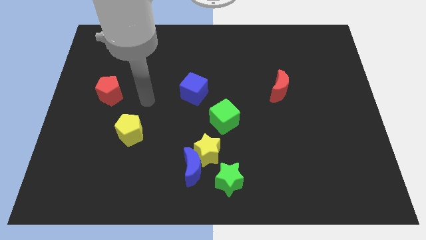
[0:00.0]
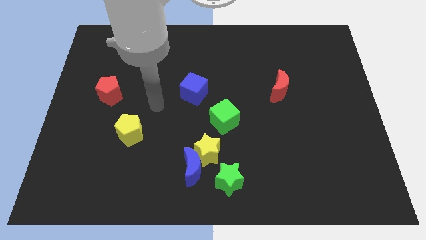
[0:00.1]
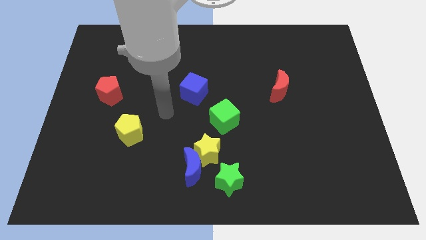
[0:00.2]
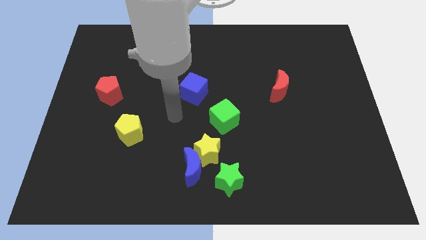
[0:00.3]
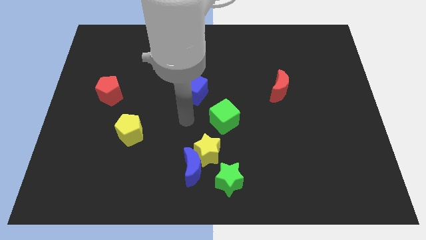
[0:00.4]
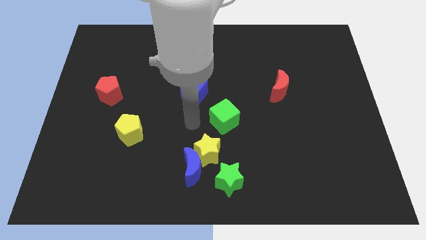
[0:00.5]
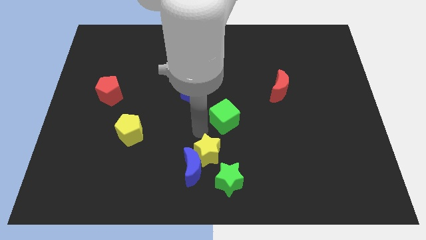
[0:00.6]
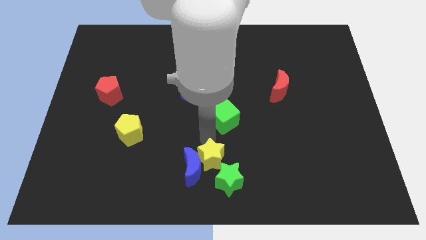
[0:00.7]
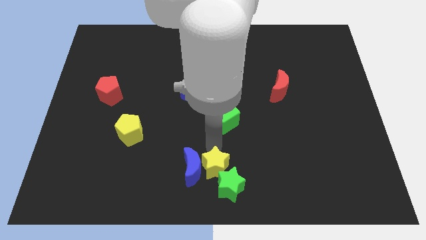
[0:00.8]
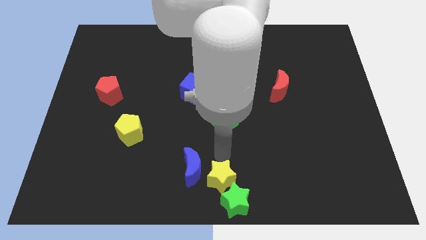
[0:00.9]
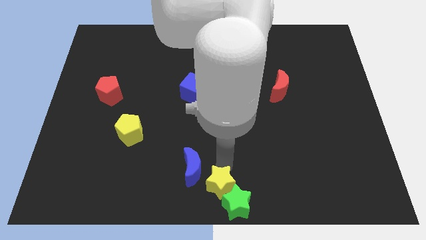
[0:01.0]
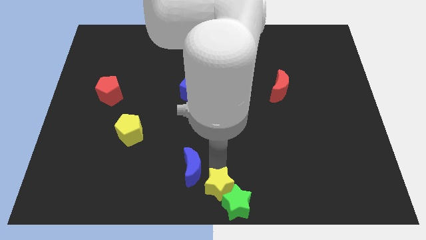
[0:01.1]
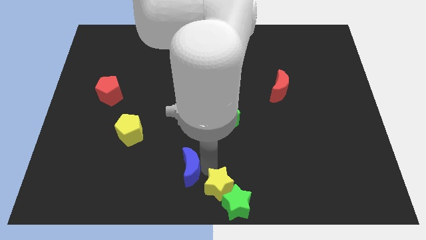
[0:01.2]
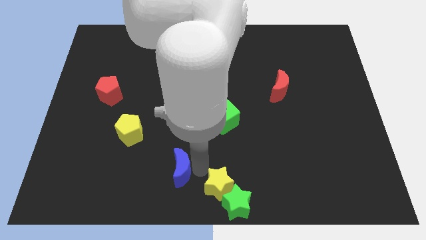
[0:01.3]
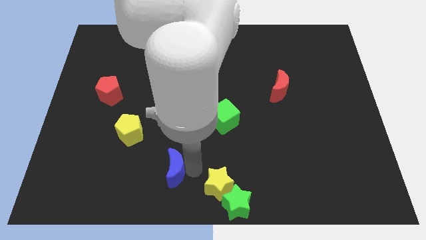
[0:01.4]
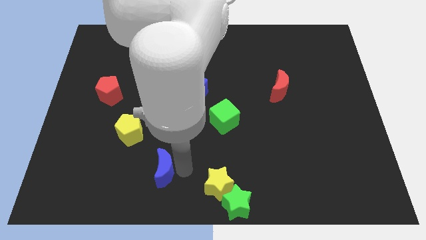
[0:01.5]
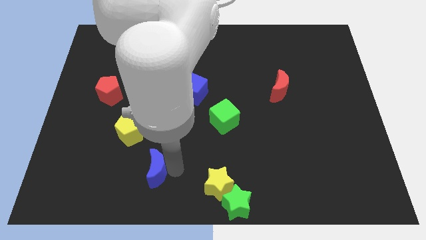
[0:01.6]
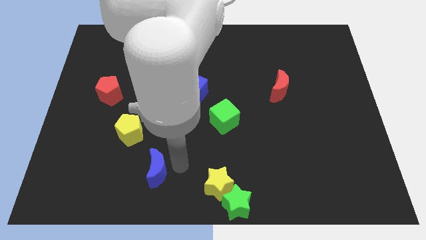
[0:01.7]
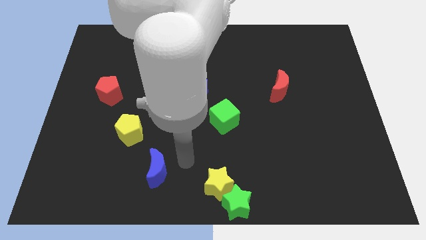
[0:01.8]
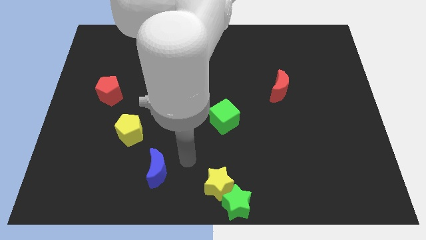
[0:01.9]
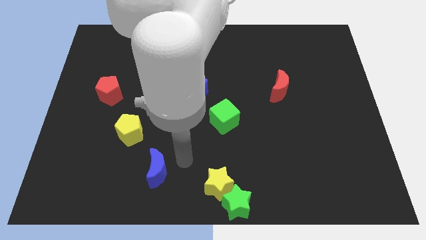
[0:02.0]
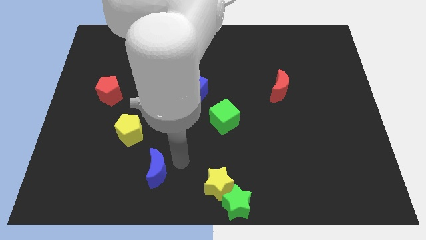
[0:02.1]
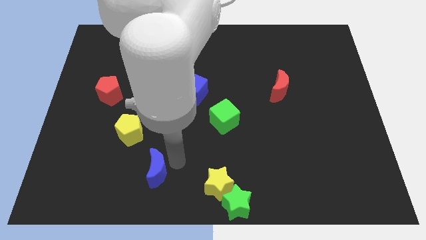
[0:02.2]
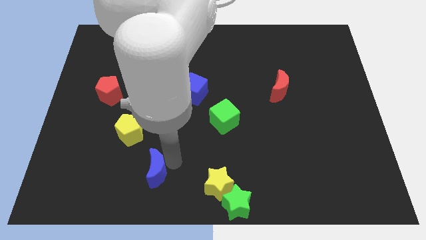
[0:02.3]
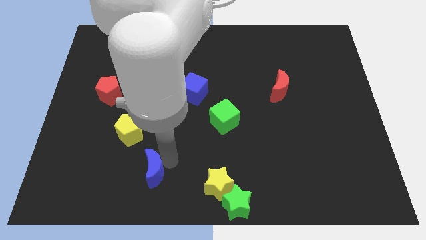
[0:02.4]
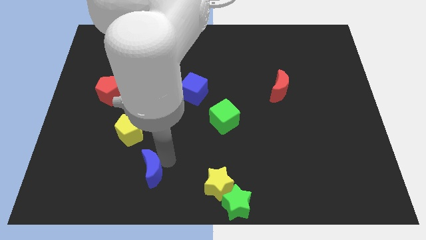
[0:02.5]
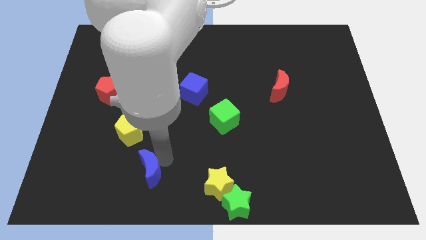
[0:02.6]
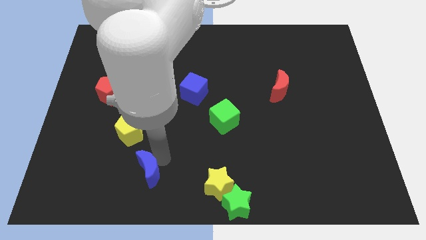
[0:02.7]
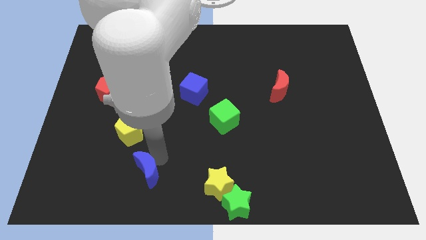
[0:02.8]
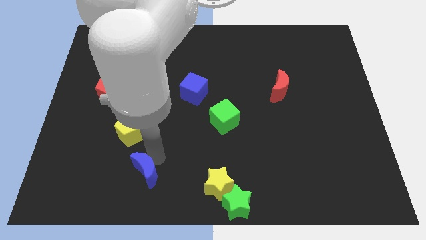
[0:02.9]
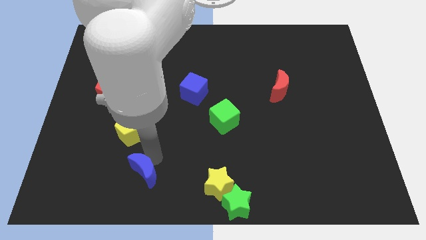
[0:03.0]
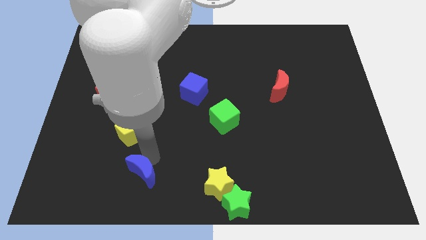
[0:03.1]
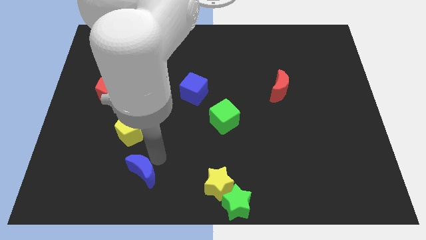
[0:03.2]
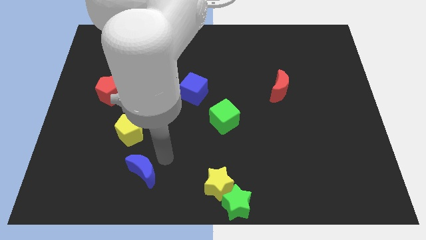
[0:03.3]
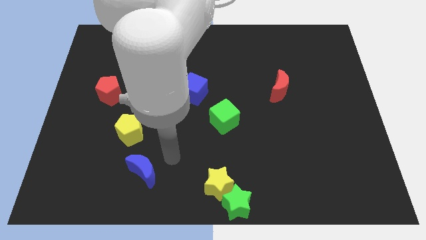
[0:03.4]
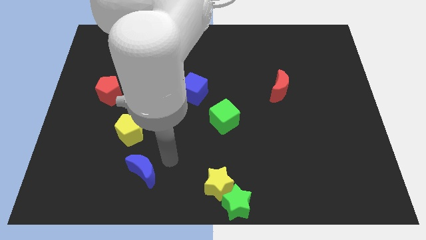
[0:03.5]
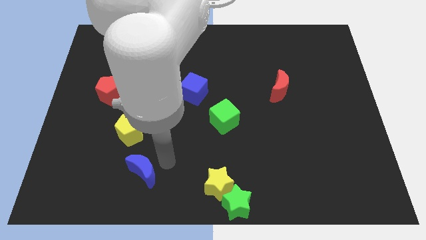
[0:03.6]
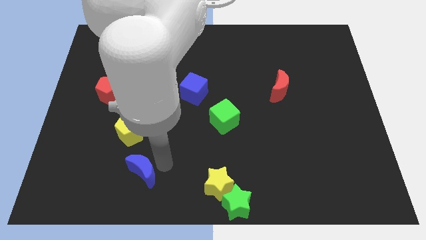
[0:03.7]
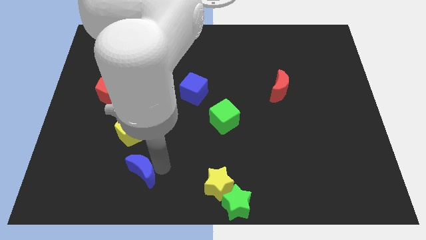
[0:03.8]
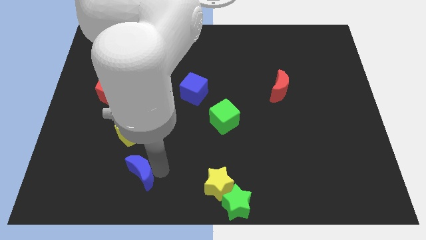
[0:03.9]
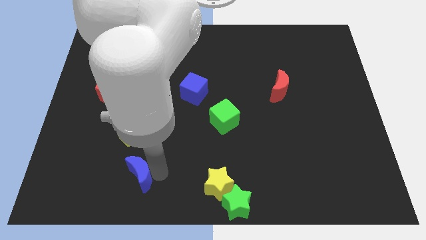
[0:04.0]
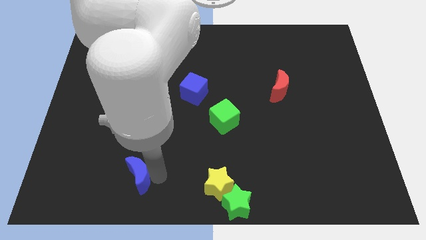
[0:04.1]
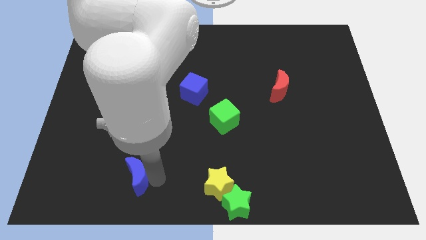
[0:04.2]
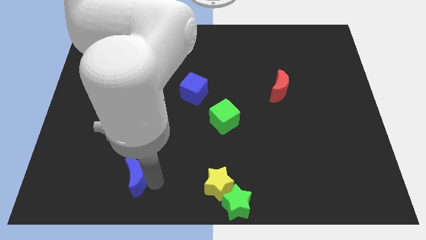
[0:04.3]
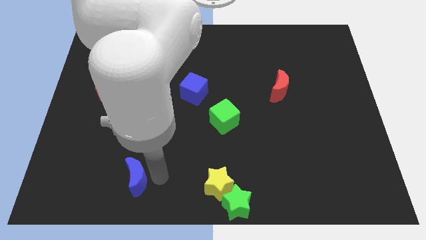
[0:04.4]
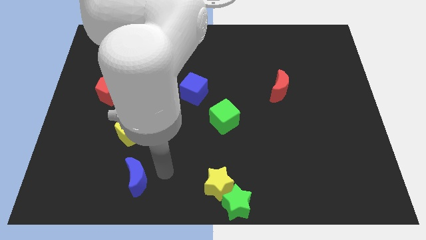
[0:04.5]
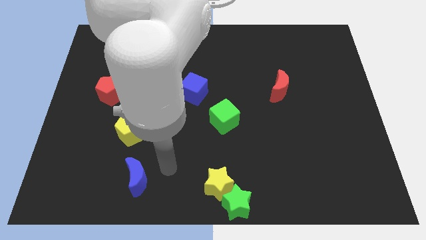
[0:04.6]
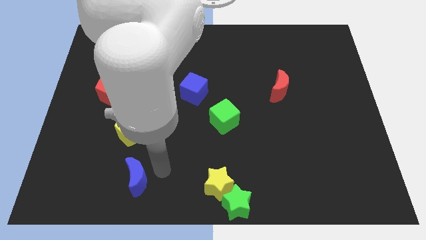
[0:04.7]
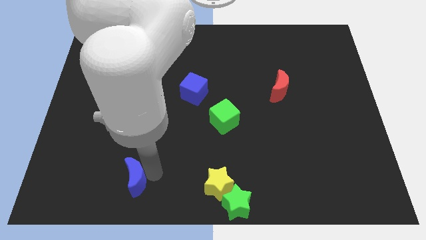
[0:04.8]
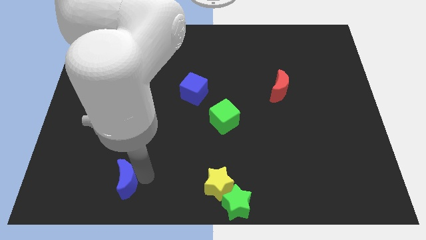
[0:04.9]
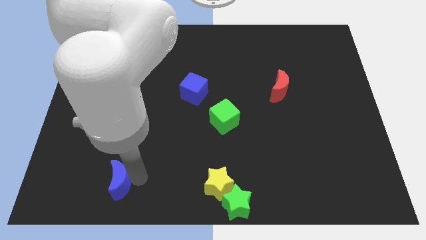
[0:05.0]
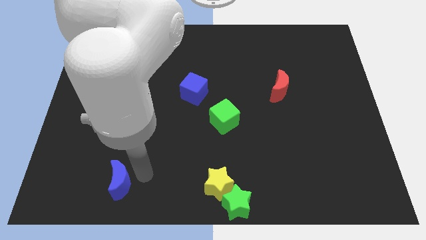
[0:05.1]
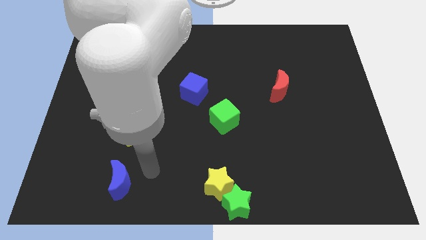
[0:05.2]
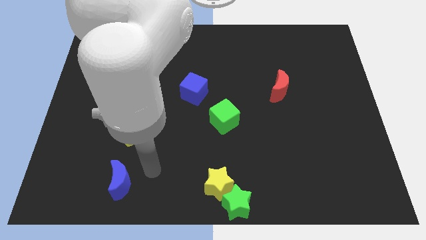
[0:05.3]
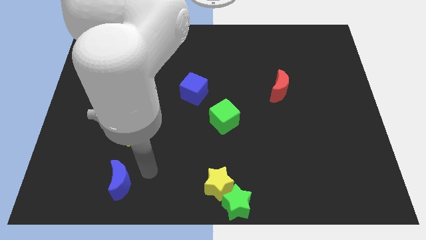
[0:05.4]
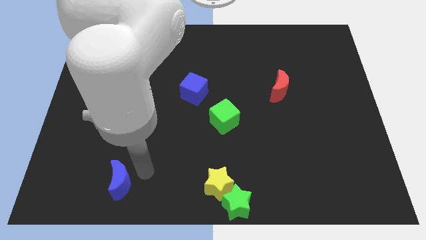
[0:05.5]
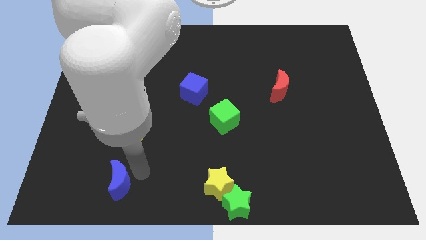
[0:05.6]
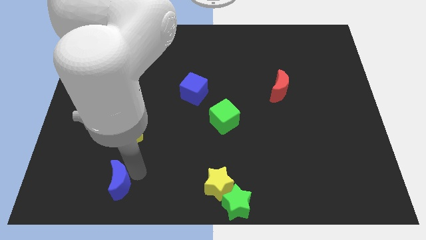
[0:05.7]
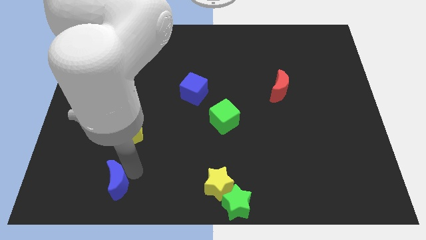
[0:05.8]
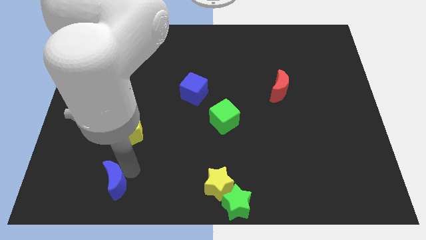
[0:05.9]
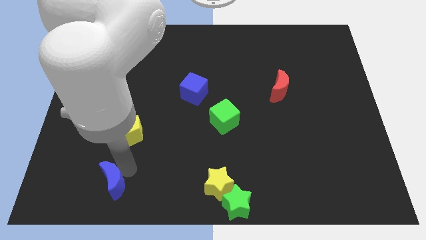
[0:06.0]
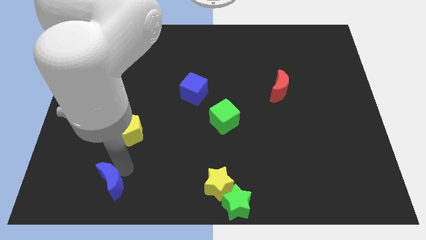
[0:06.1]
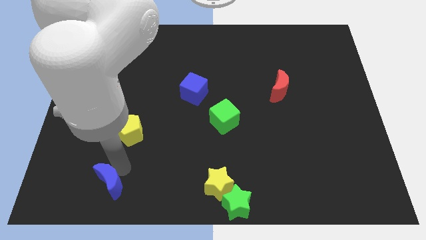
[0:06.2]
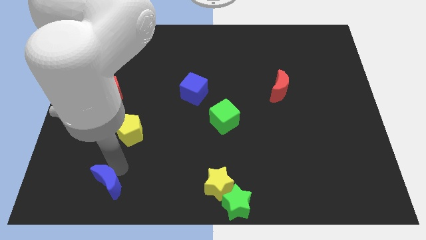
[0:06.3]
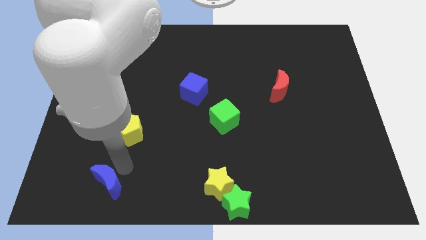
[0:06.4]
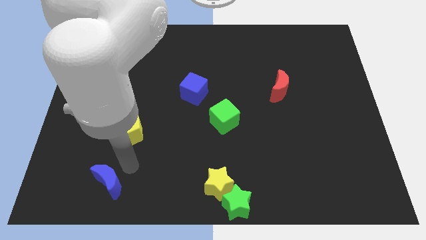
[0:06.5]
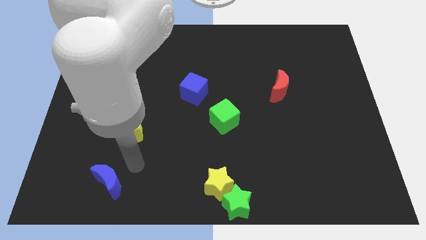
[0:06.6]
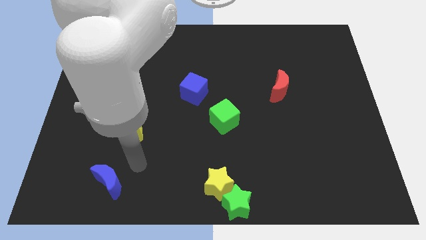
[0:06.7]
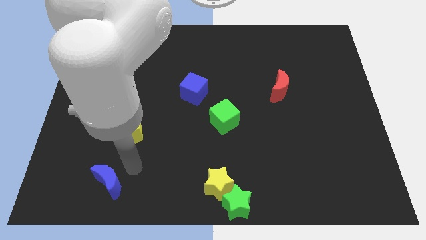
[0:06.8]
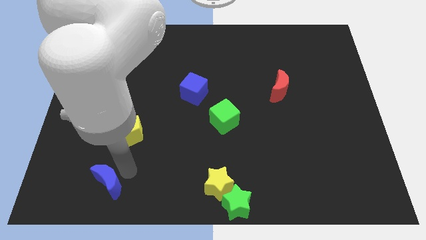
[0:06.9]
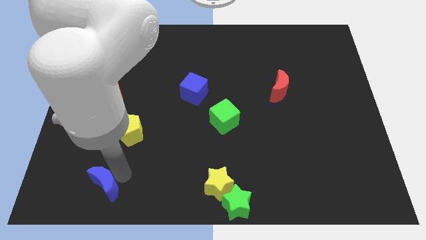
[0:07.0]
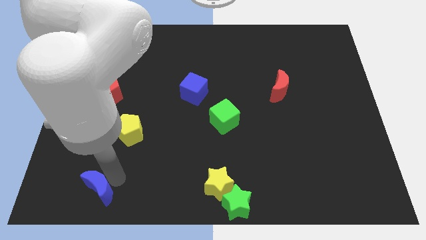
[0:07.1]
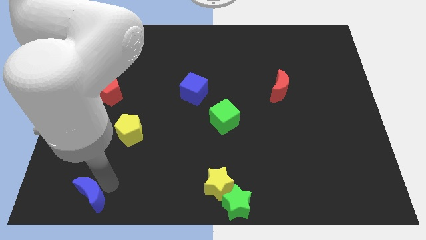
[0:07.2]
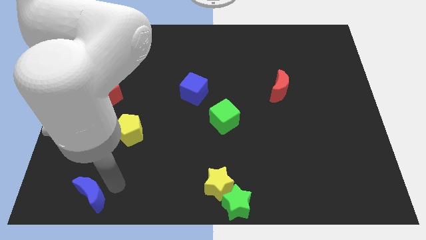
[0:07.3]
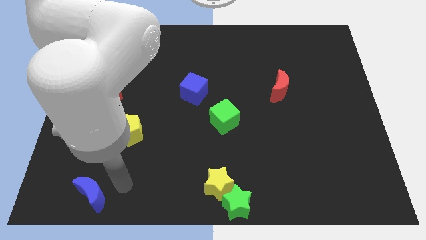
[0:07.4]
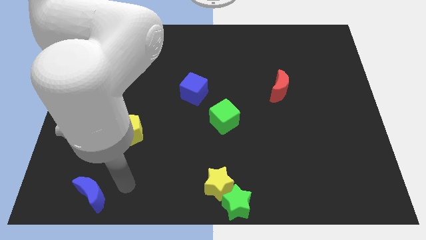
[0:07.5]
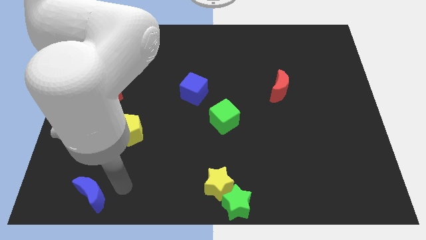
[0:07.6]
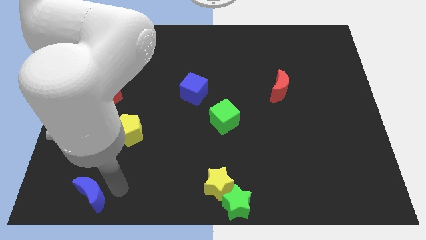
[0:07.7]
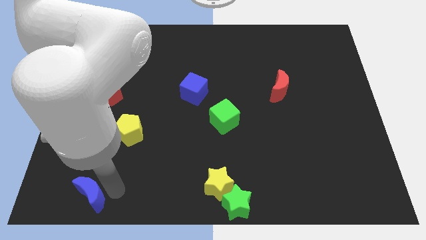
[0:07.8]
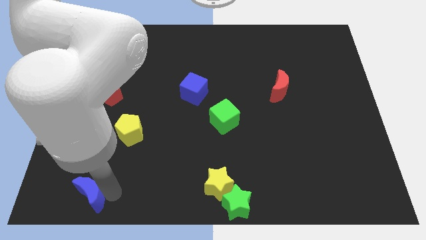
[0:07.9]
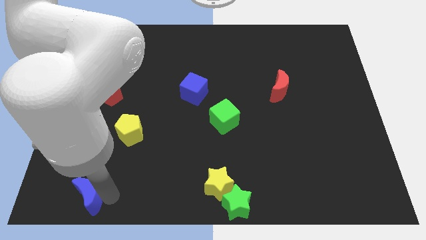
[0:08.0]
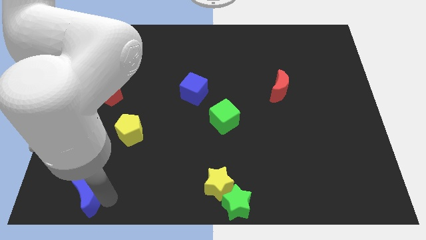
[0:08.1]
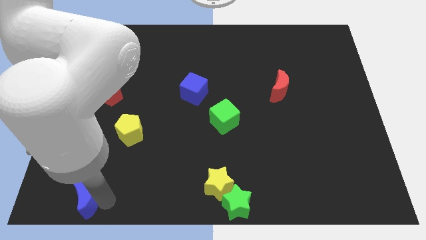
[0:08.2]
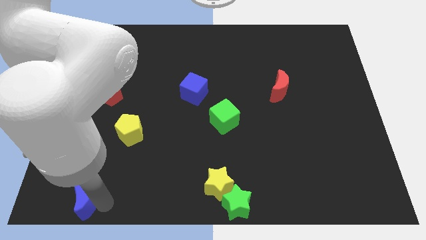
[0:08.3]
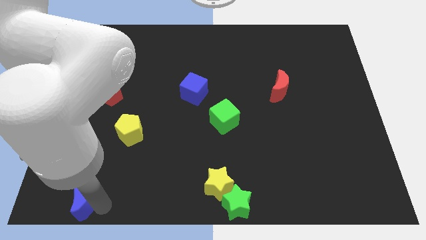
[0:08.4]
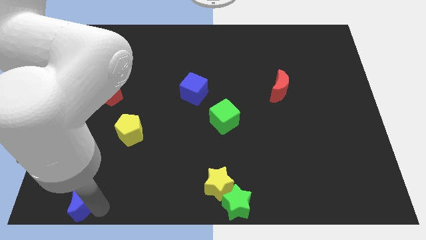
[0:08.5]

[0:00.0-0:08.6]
put the blue moon to the bottom left corner
